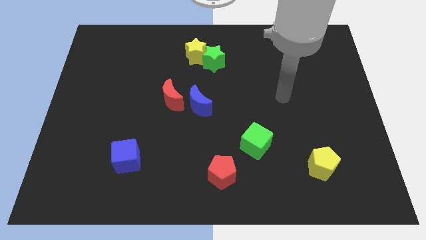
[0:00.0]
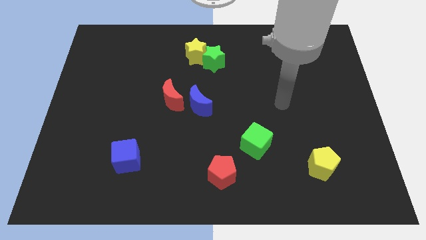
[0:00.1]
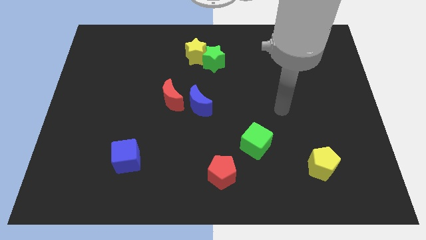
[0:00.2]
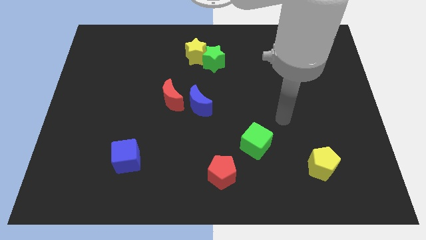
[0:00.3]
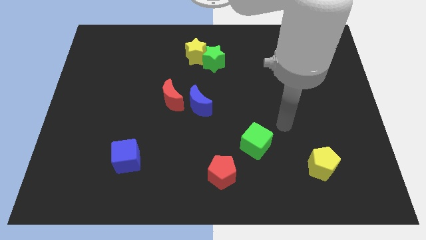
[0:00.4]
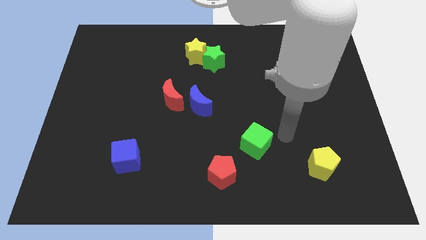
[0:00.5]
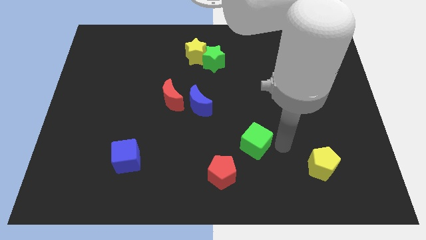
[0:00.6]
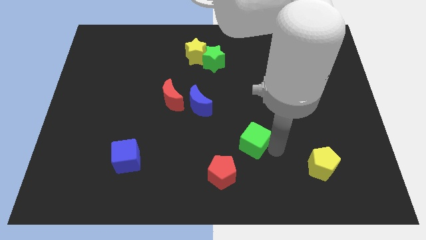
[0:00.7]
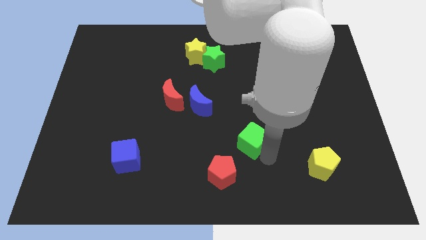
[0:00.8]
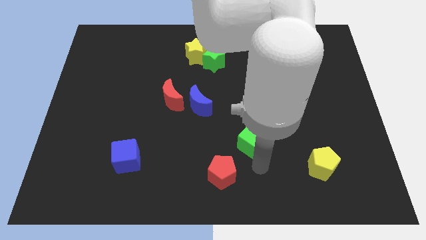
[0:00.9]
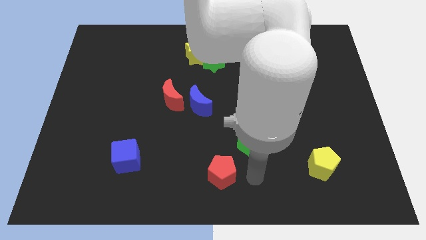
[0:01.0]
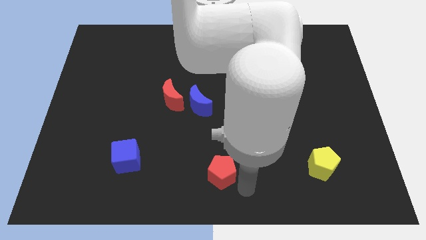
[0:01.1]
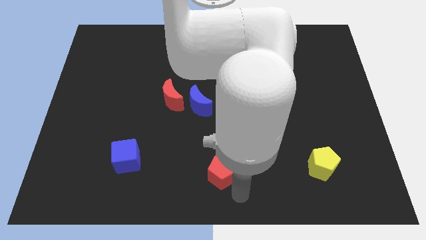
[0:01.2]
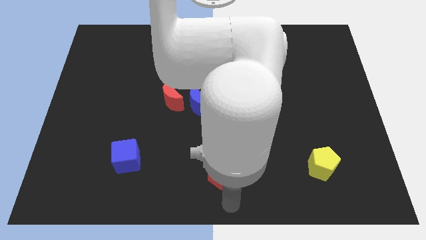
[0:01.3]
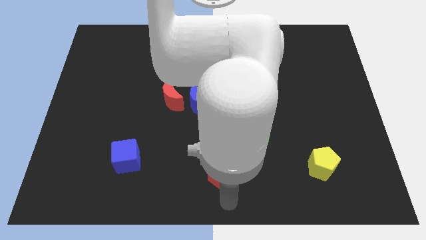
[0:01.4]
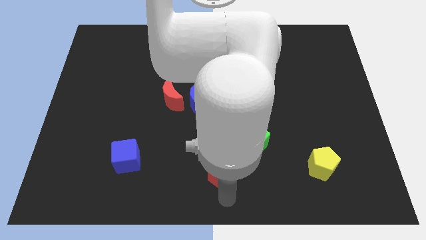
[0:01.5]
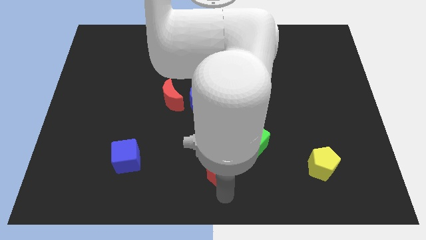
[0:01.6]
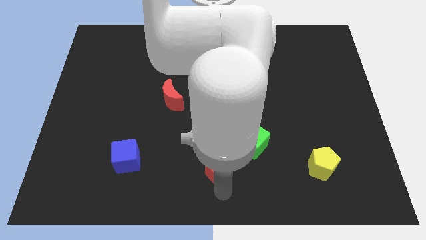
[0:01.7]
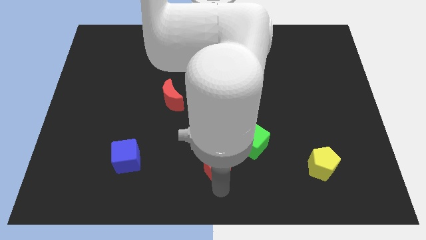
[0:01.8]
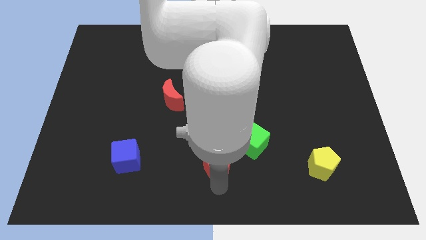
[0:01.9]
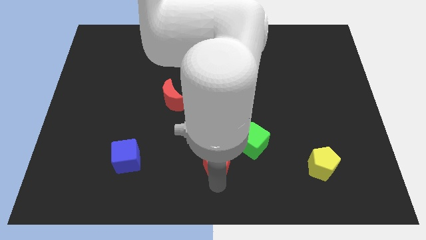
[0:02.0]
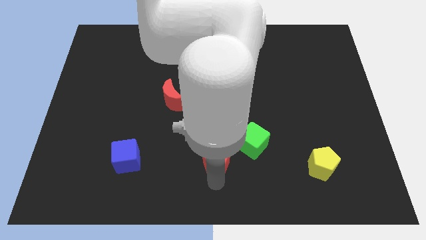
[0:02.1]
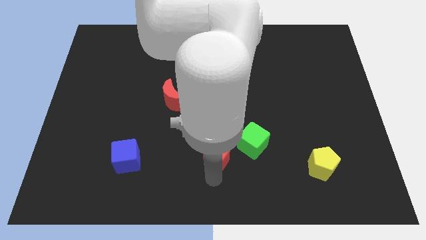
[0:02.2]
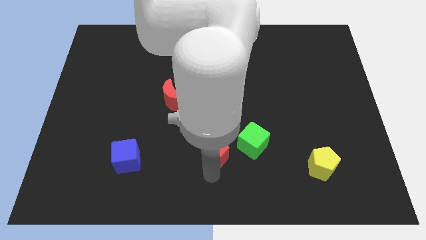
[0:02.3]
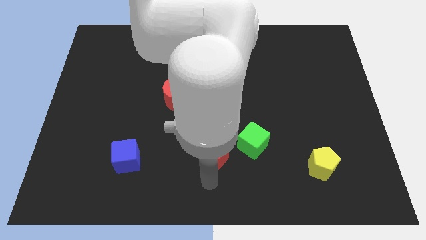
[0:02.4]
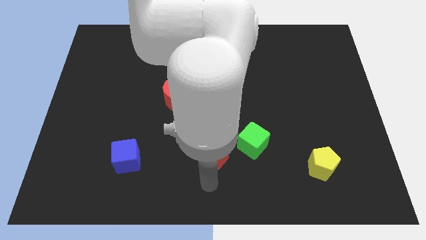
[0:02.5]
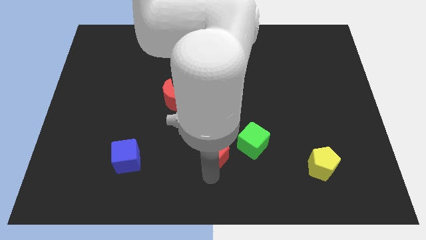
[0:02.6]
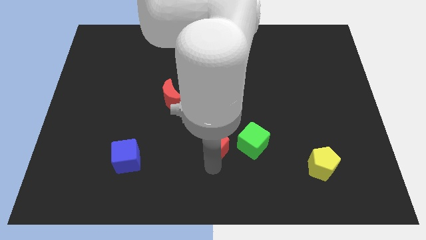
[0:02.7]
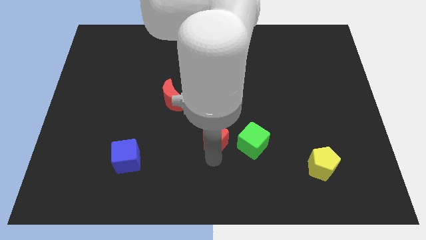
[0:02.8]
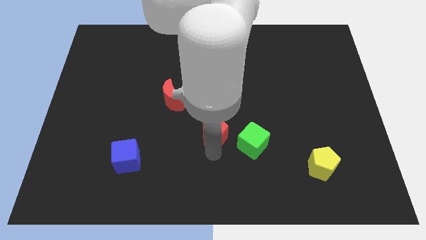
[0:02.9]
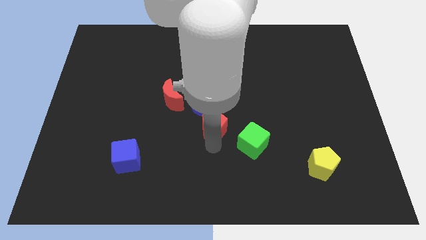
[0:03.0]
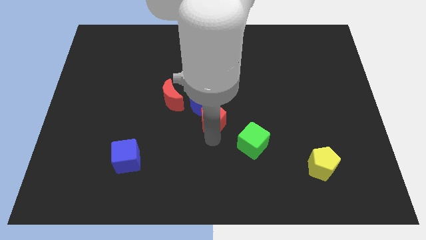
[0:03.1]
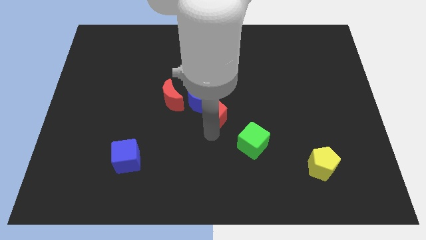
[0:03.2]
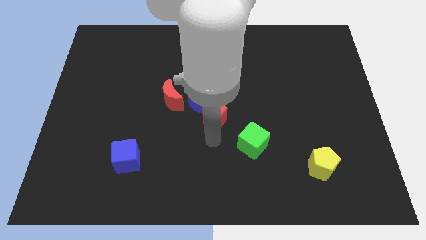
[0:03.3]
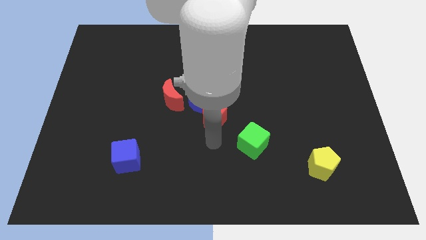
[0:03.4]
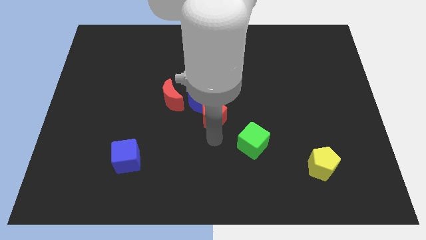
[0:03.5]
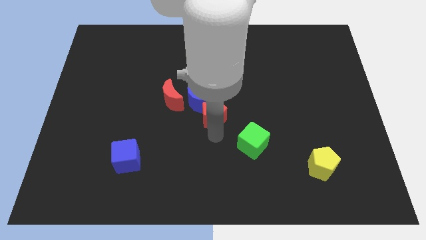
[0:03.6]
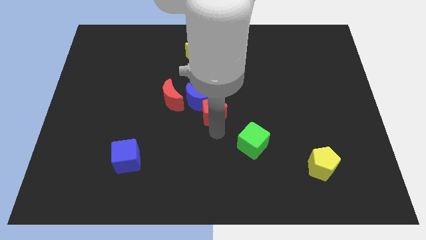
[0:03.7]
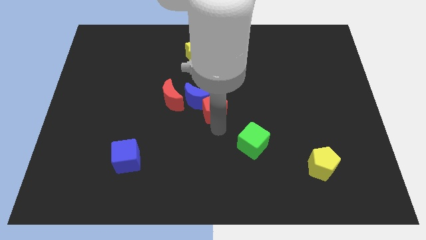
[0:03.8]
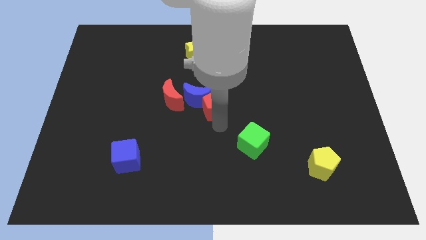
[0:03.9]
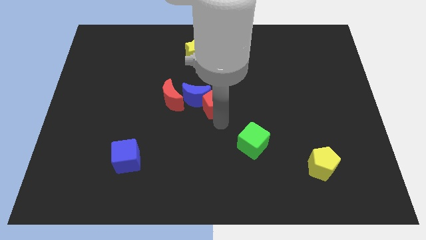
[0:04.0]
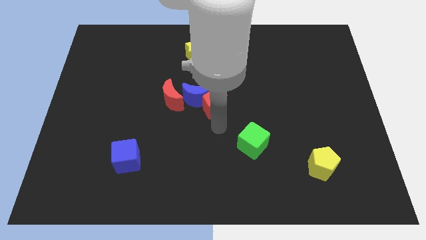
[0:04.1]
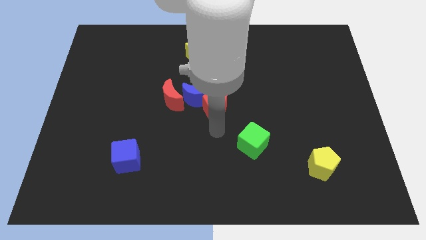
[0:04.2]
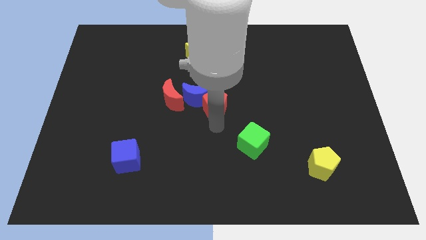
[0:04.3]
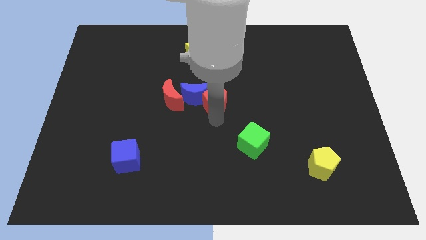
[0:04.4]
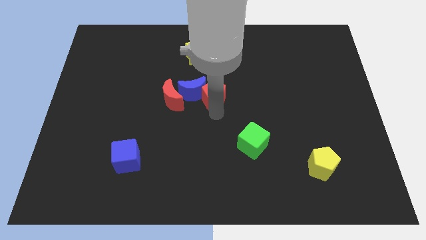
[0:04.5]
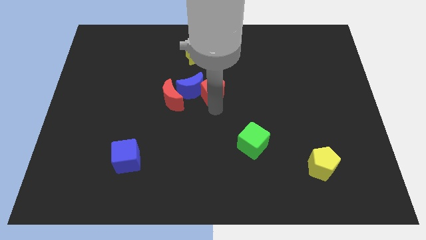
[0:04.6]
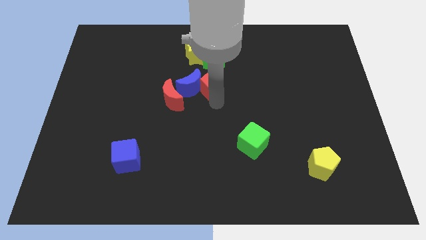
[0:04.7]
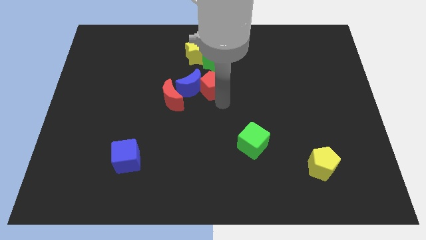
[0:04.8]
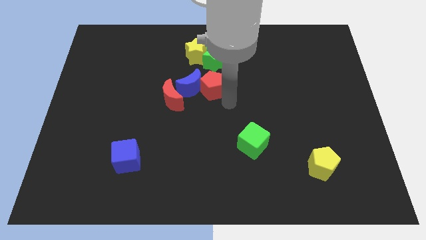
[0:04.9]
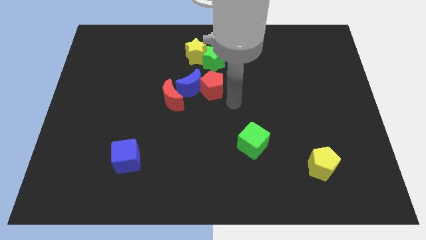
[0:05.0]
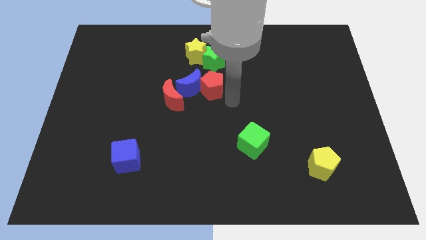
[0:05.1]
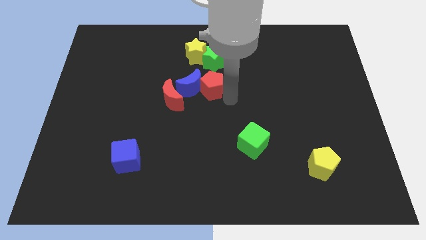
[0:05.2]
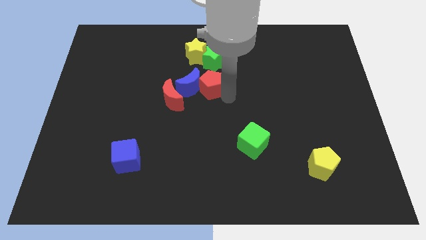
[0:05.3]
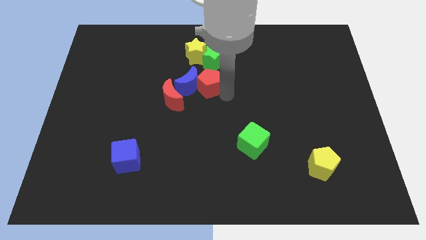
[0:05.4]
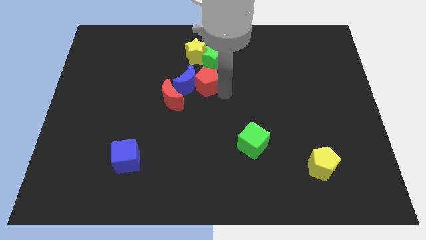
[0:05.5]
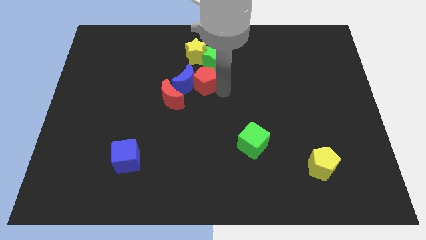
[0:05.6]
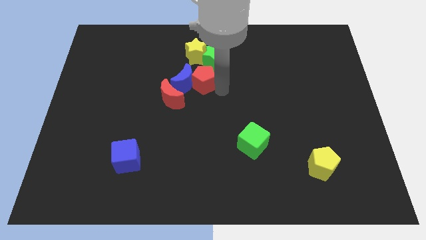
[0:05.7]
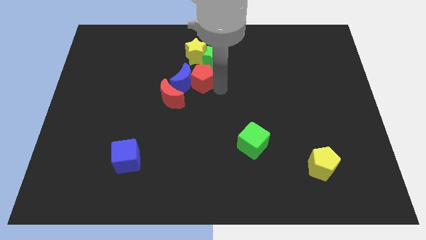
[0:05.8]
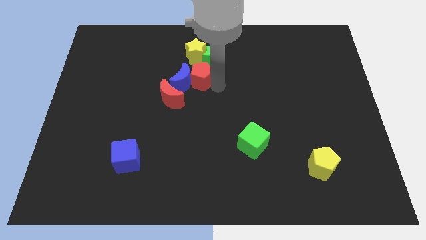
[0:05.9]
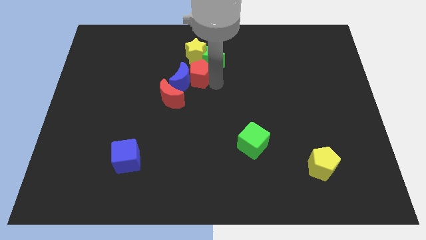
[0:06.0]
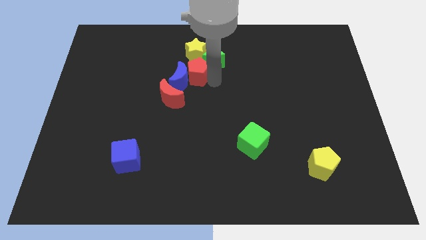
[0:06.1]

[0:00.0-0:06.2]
slide the red pentagon left of the green star

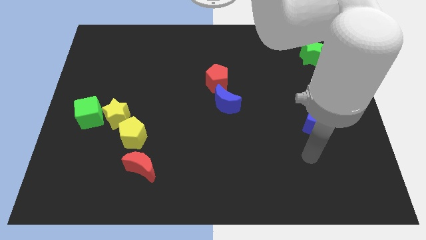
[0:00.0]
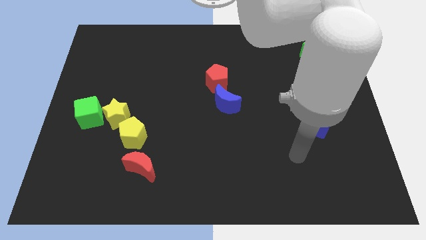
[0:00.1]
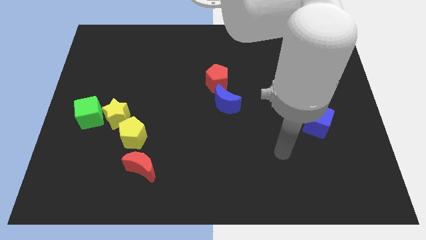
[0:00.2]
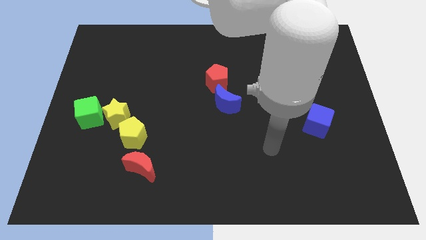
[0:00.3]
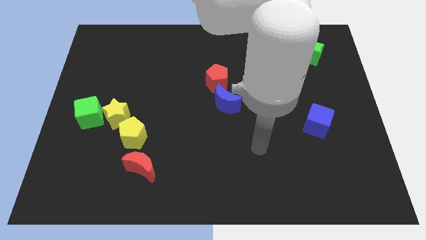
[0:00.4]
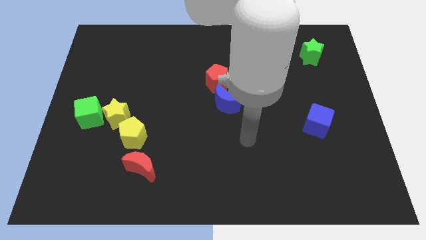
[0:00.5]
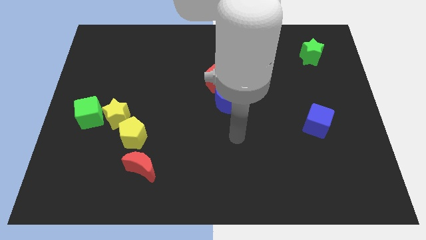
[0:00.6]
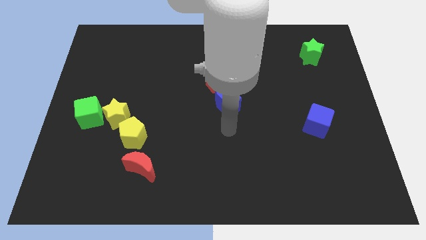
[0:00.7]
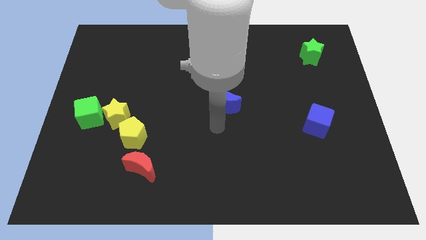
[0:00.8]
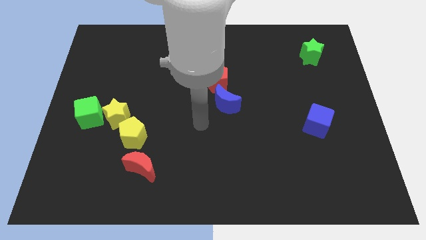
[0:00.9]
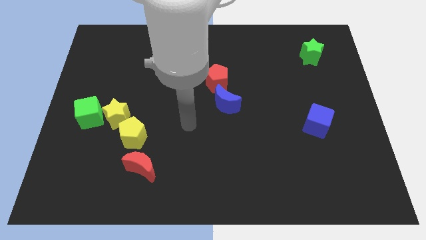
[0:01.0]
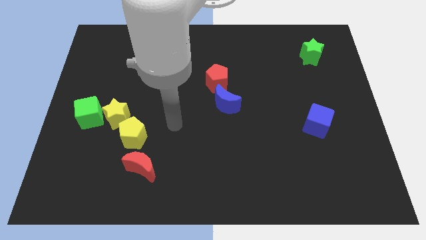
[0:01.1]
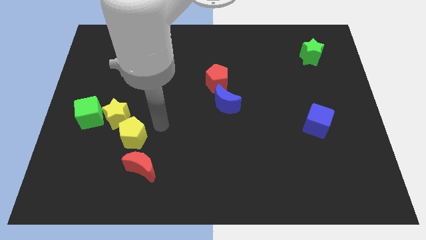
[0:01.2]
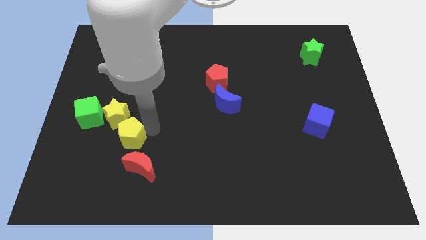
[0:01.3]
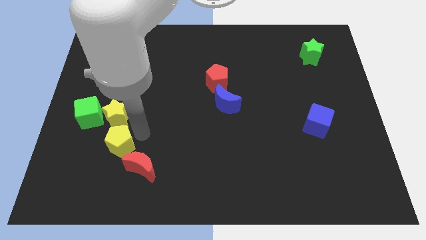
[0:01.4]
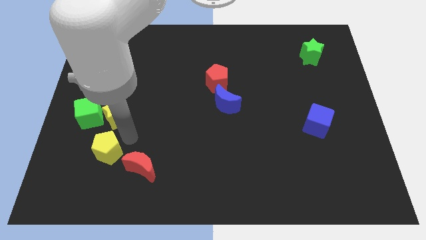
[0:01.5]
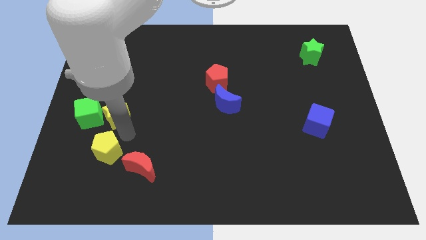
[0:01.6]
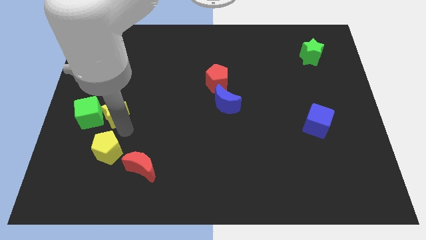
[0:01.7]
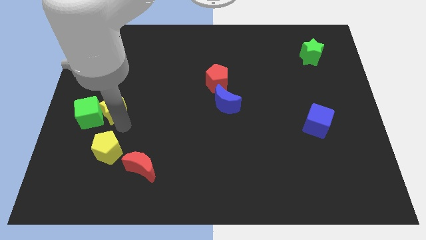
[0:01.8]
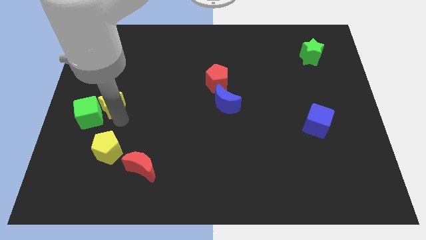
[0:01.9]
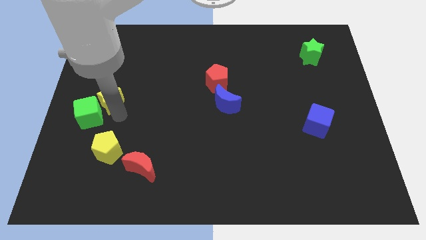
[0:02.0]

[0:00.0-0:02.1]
slide the yellow star to the top side of the green cube
